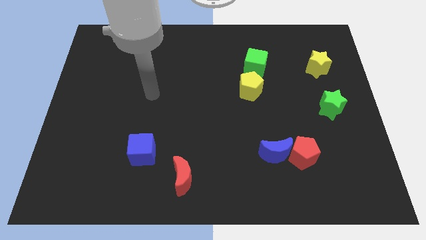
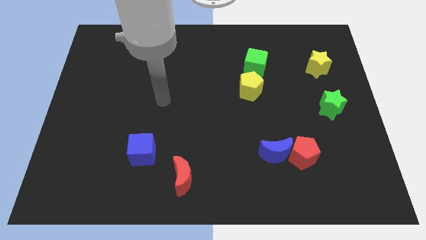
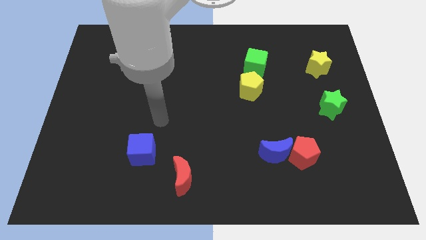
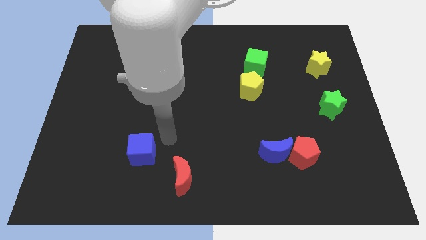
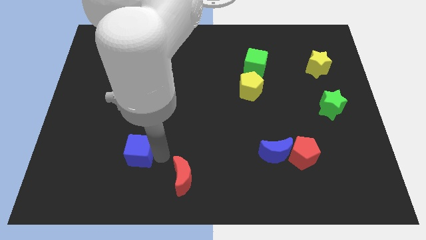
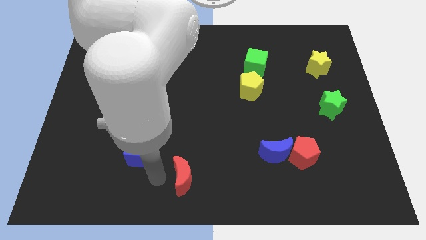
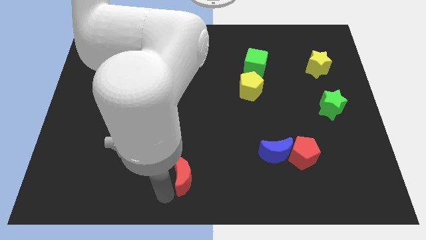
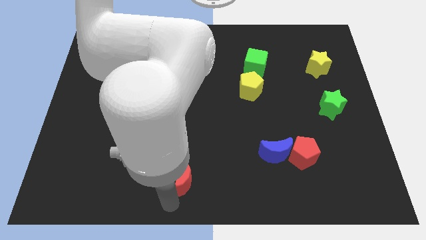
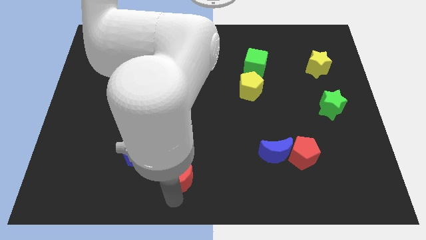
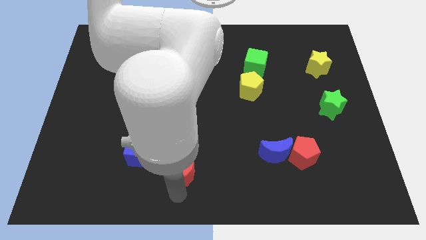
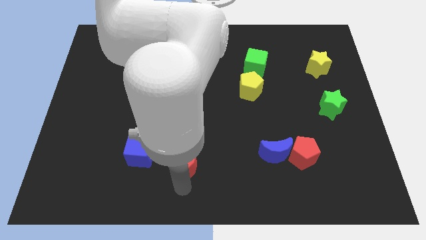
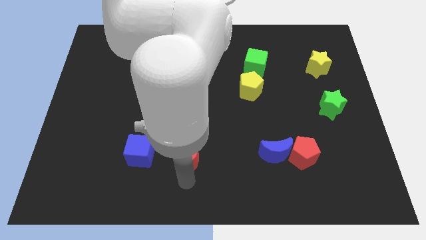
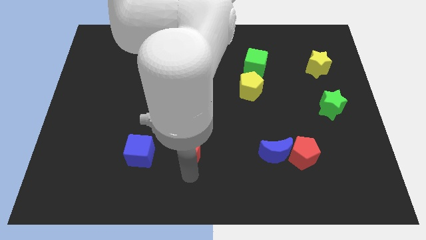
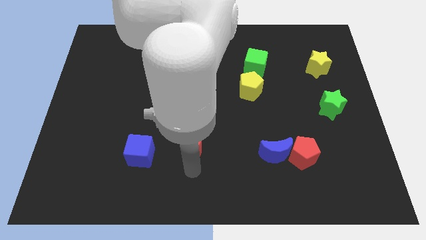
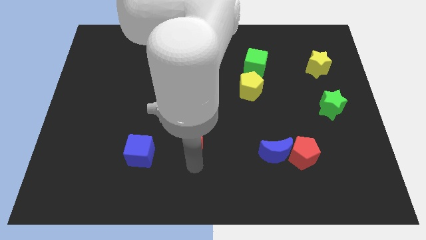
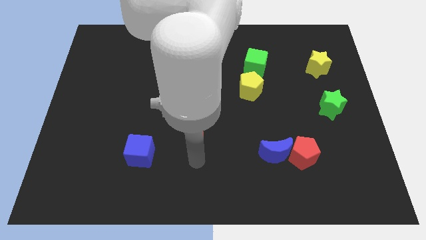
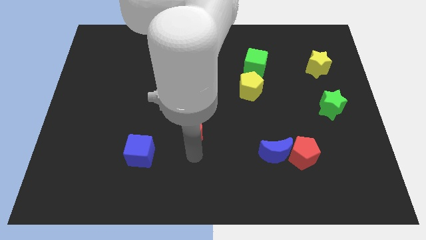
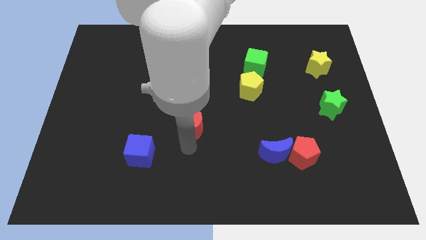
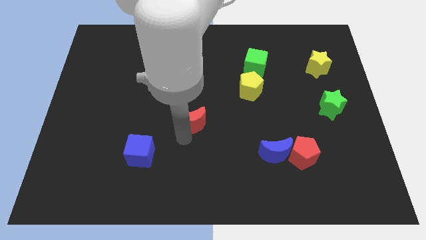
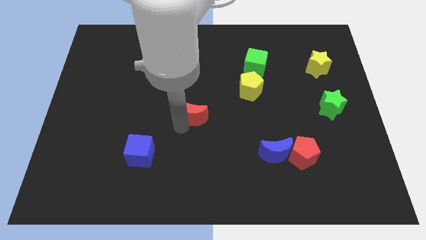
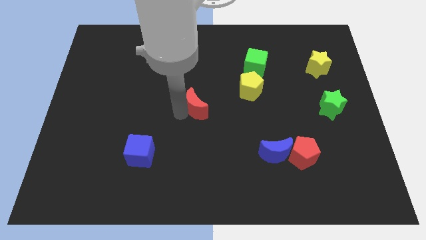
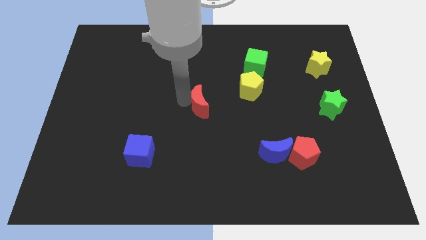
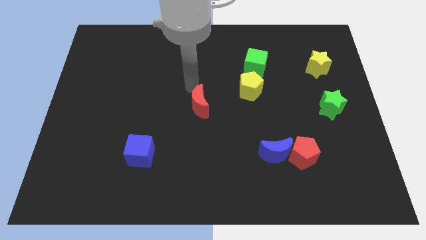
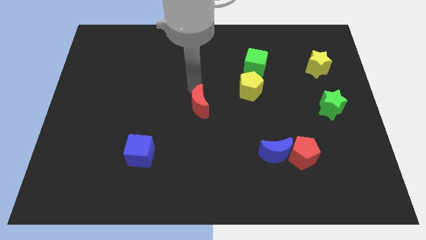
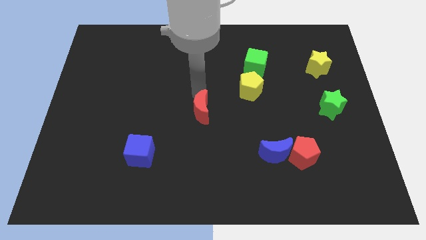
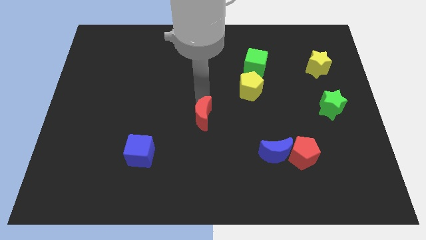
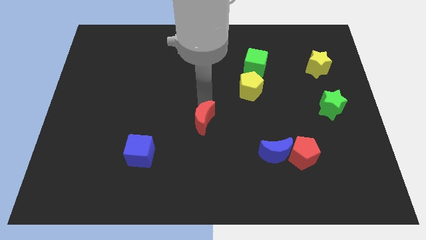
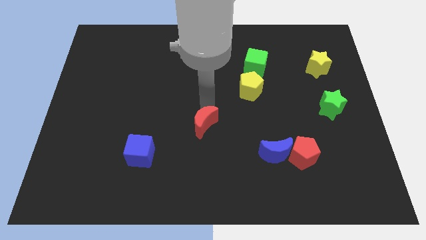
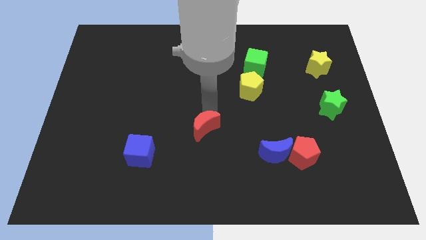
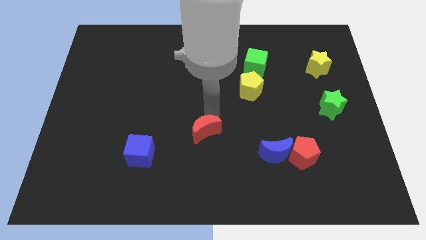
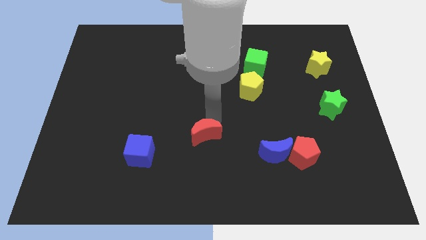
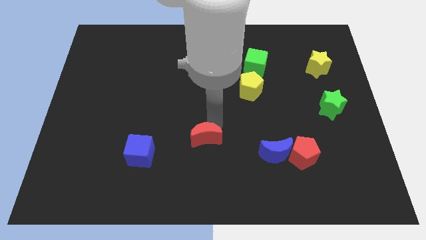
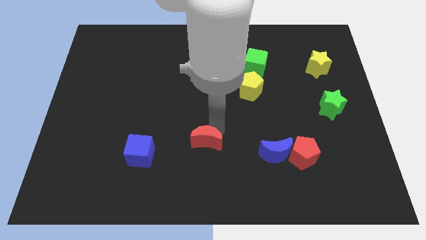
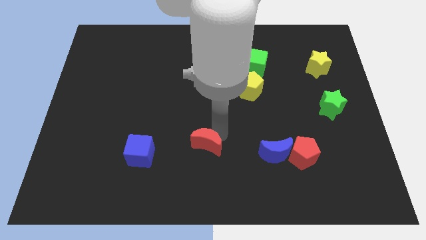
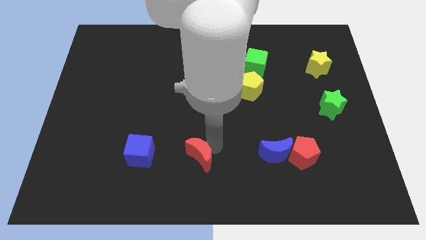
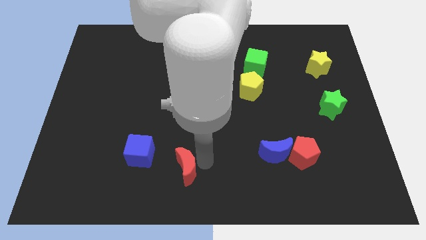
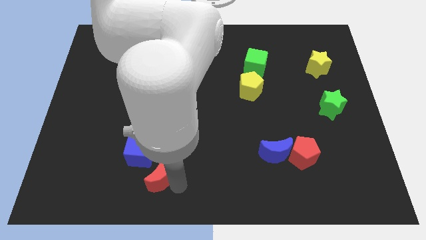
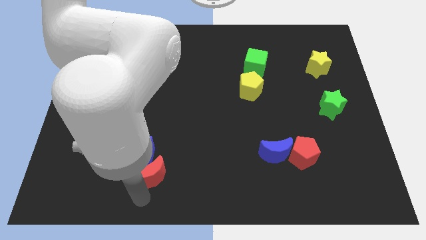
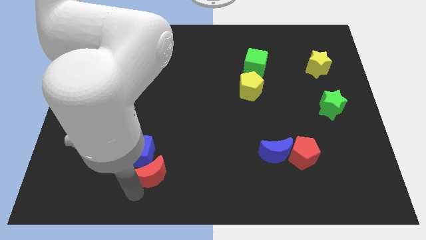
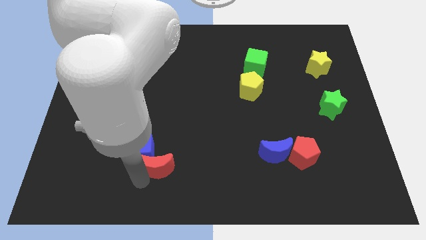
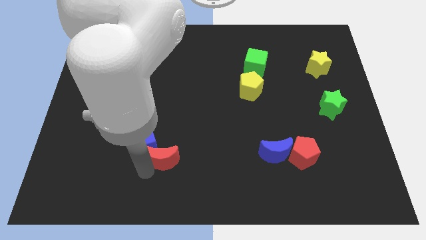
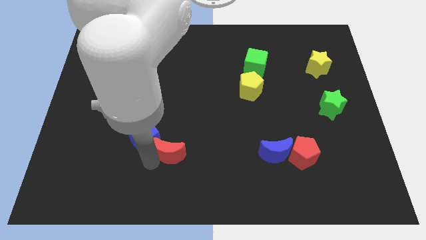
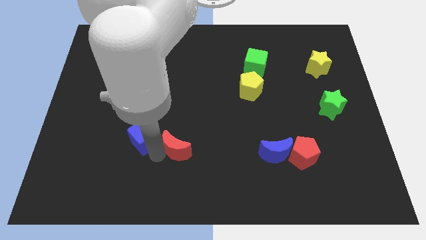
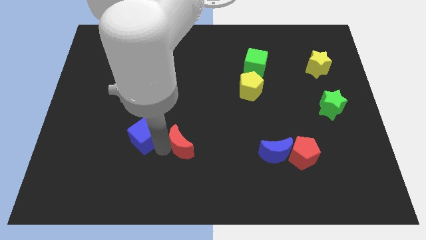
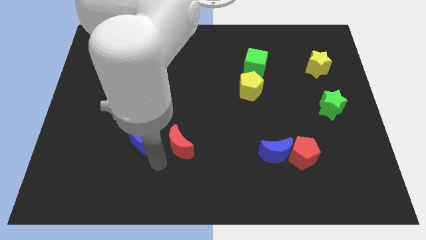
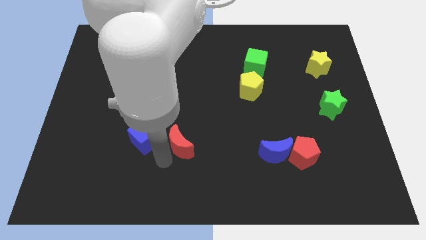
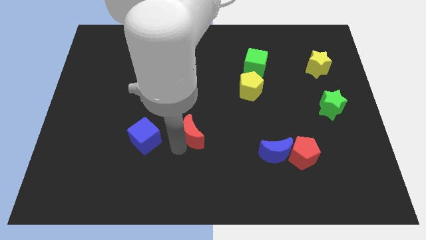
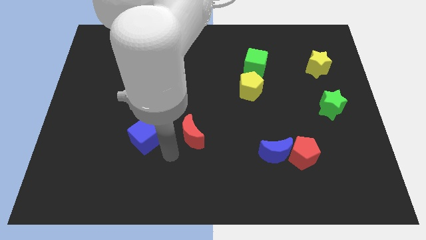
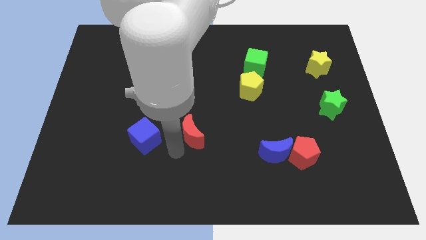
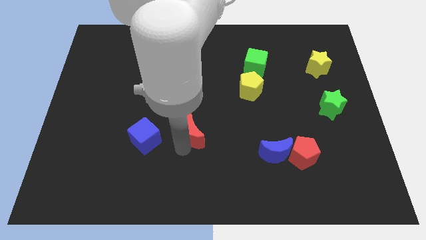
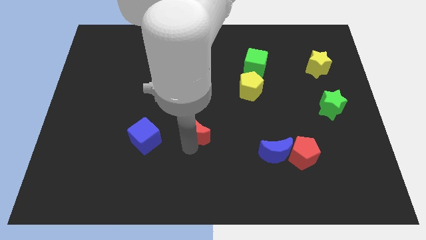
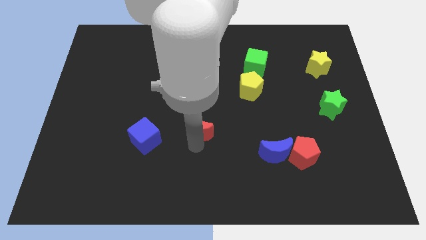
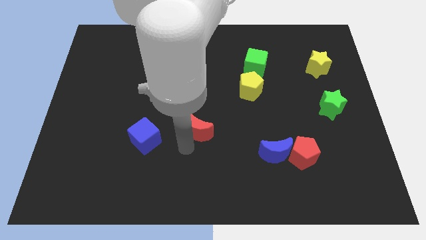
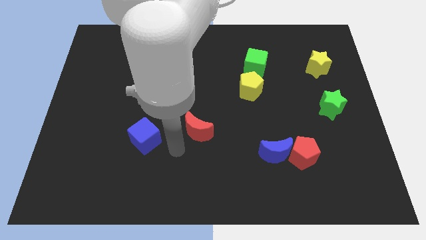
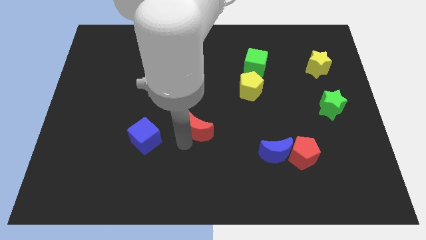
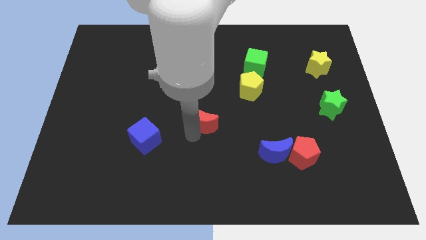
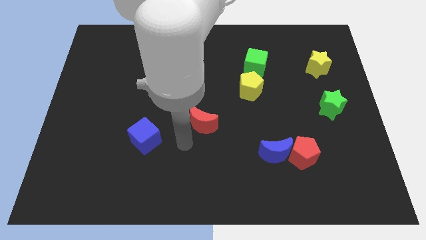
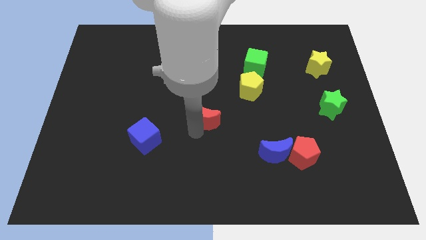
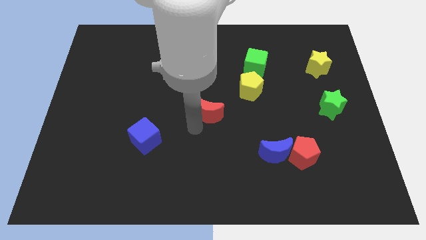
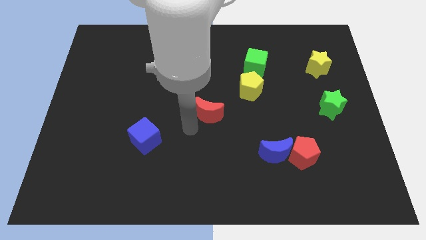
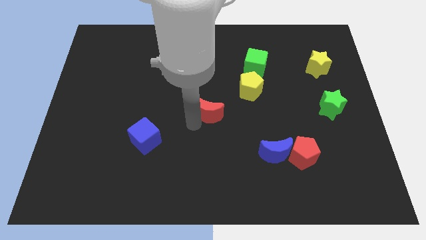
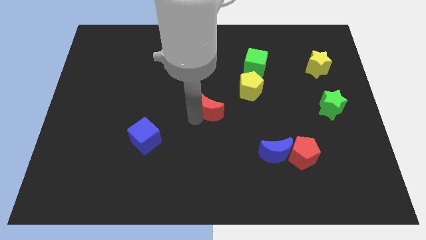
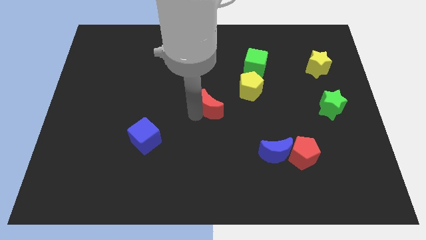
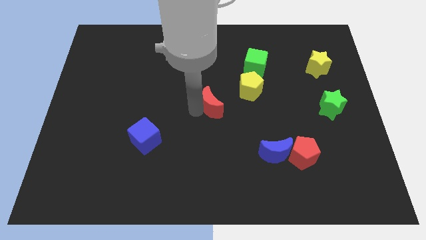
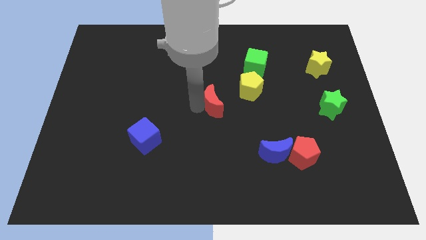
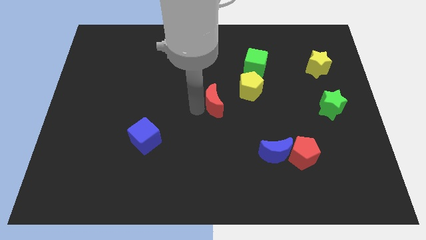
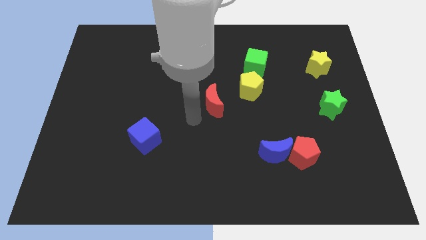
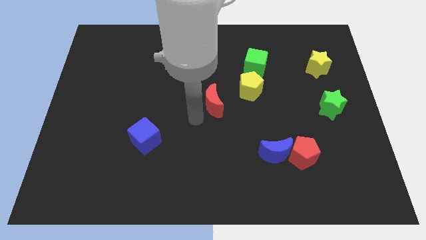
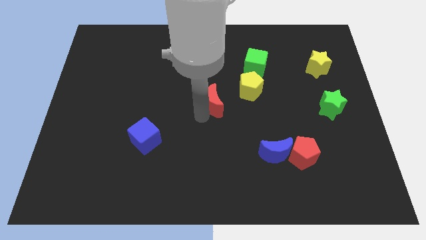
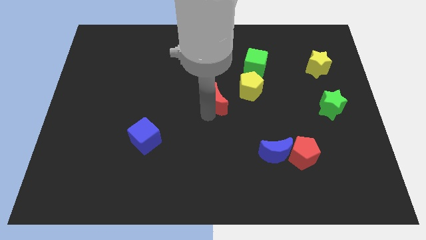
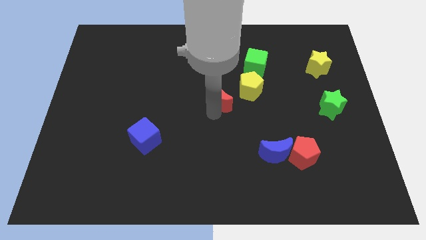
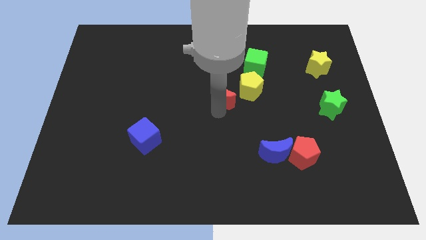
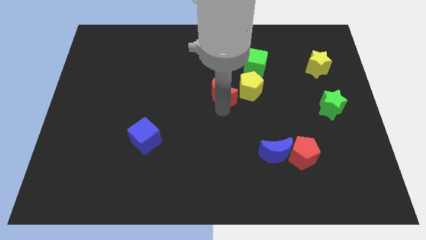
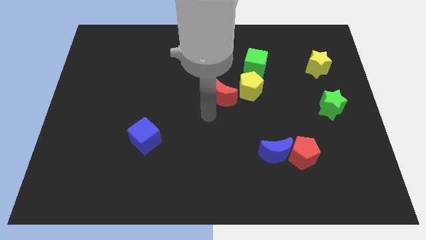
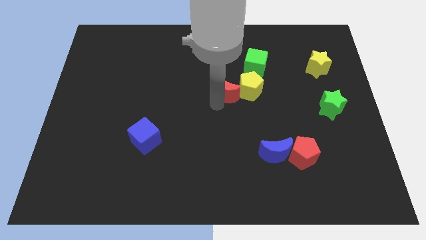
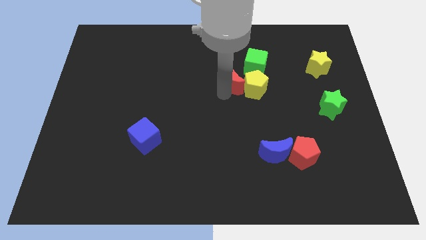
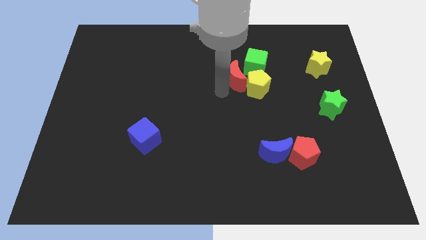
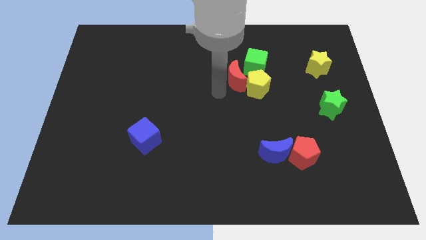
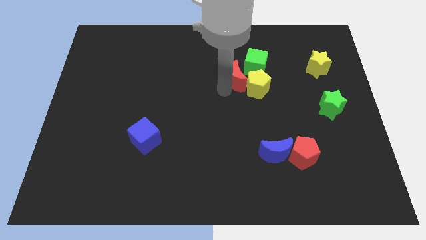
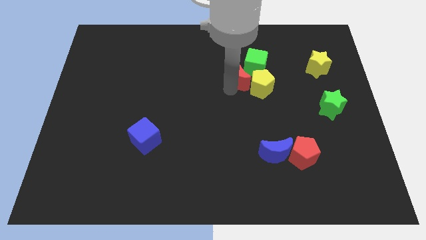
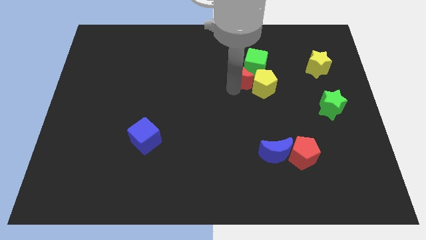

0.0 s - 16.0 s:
slide the red moon towards the green cube
